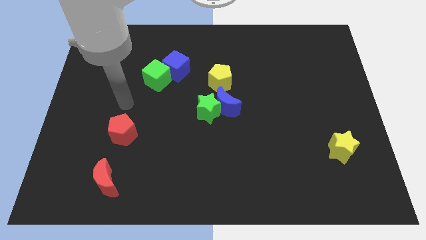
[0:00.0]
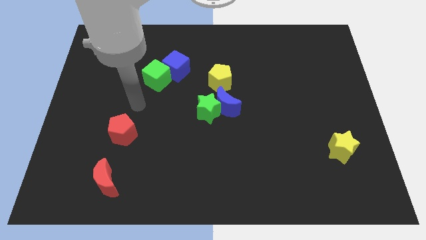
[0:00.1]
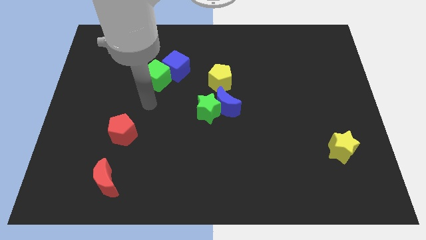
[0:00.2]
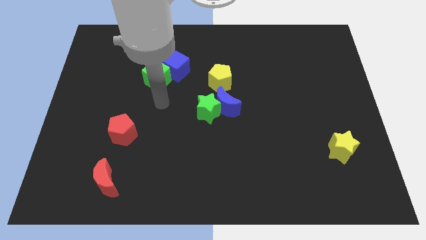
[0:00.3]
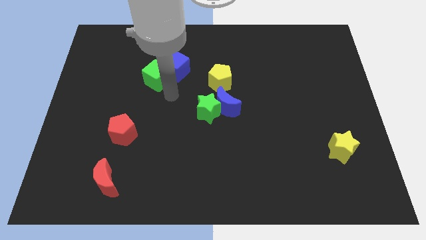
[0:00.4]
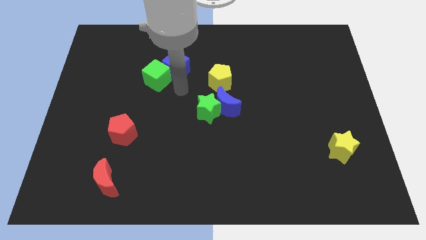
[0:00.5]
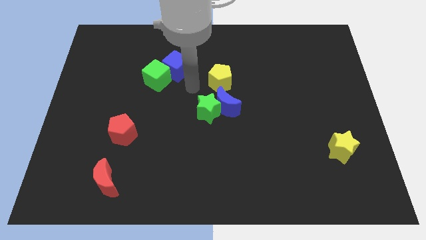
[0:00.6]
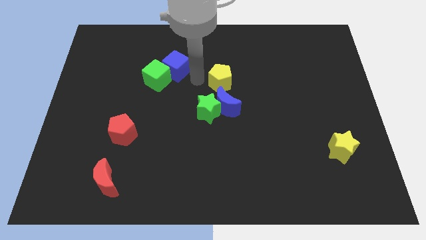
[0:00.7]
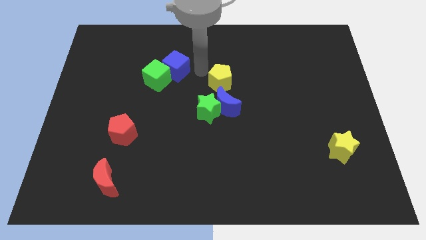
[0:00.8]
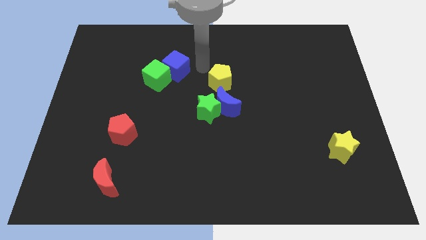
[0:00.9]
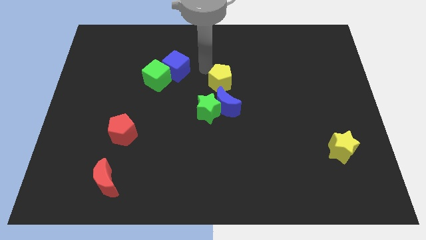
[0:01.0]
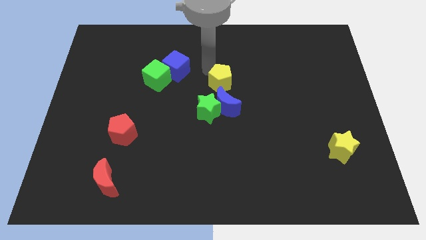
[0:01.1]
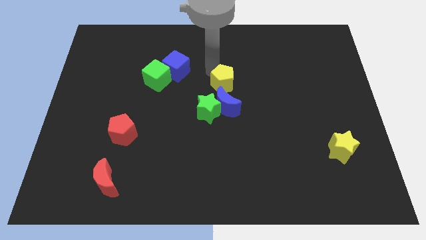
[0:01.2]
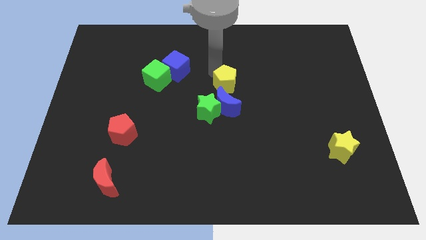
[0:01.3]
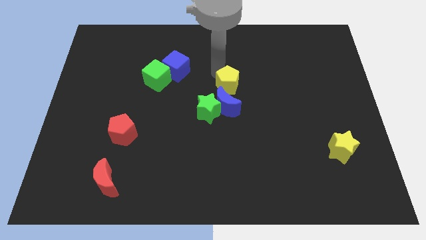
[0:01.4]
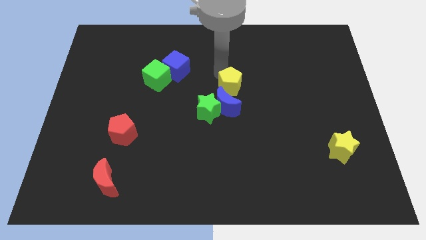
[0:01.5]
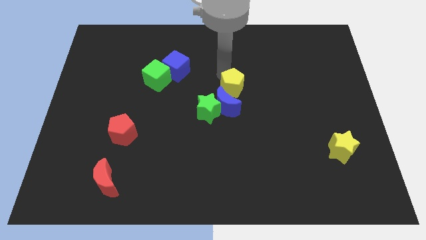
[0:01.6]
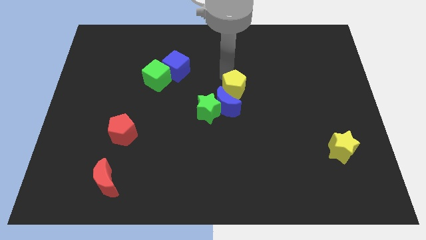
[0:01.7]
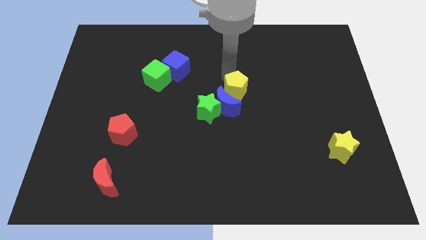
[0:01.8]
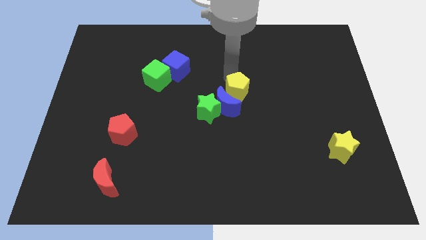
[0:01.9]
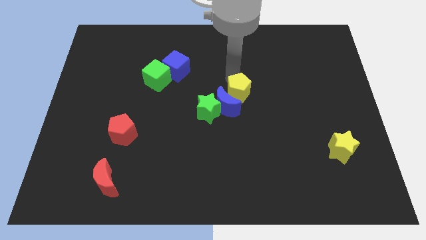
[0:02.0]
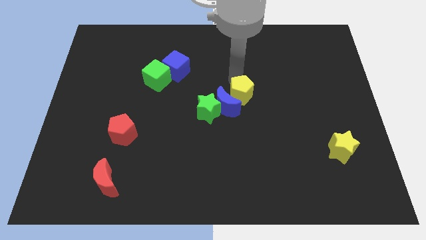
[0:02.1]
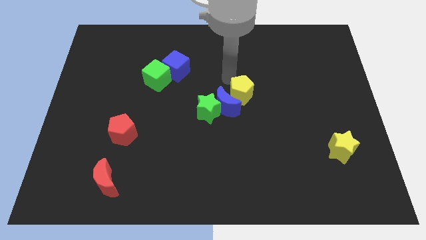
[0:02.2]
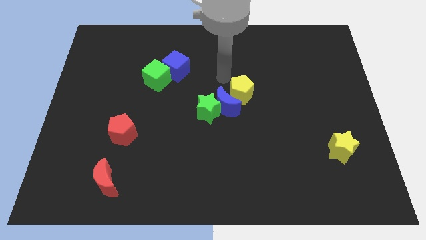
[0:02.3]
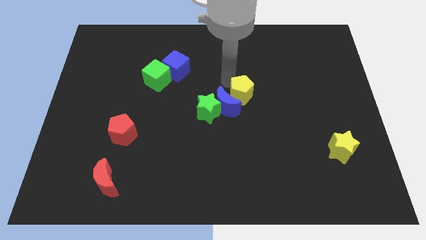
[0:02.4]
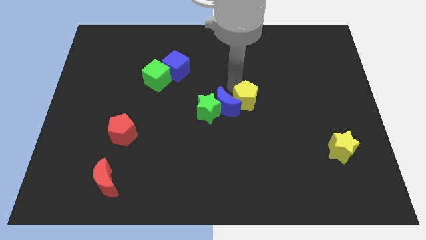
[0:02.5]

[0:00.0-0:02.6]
slide the yellow pentagon slightly downwards and to the right

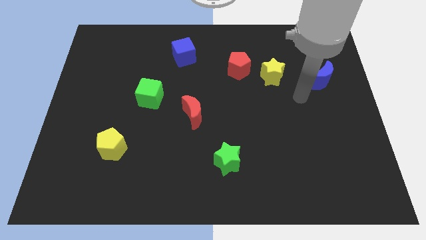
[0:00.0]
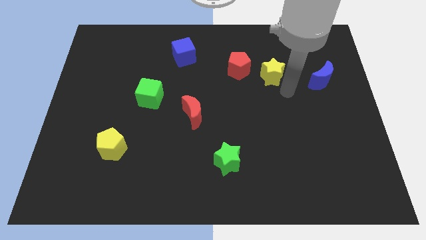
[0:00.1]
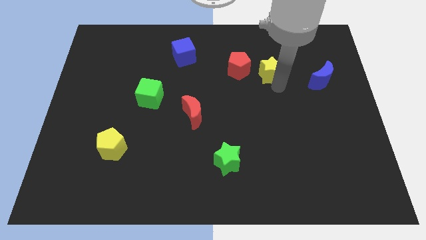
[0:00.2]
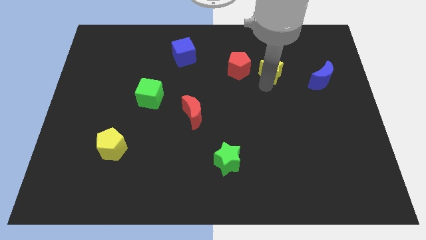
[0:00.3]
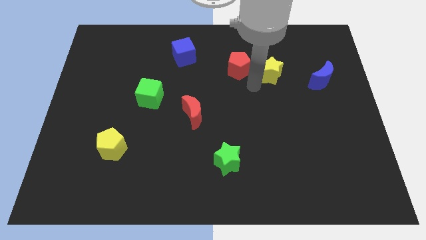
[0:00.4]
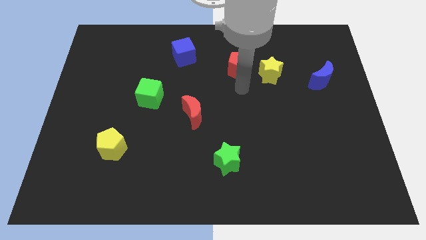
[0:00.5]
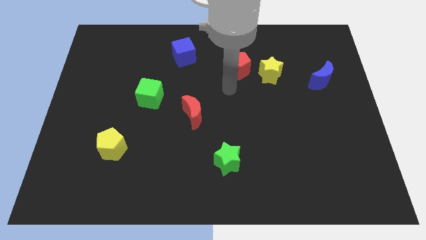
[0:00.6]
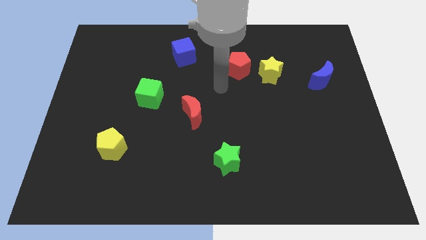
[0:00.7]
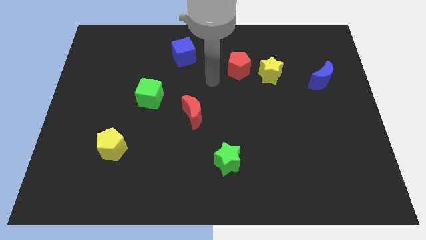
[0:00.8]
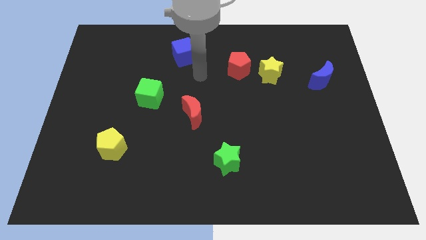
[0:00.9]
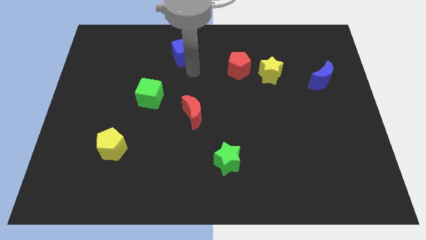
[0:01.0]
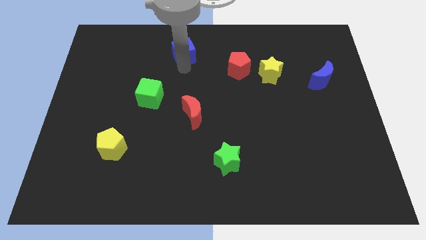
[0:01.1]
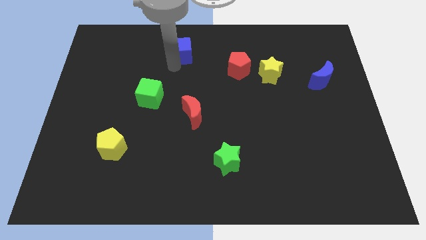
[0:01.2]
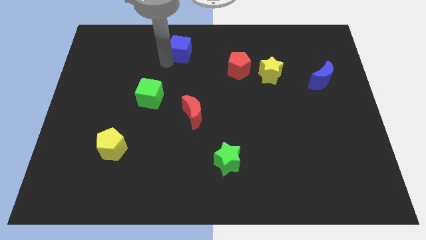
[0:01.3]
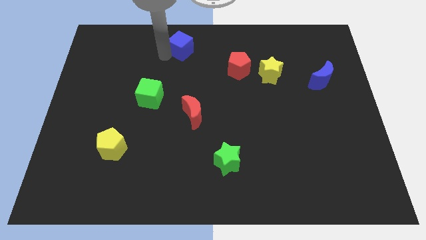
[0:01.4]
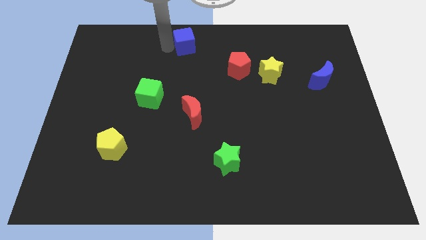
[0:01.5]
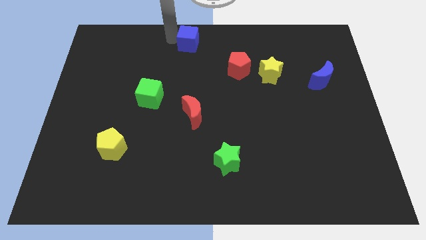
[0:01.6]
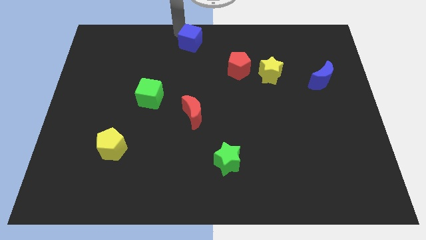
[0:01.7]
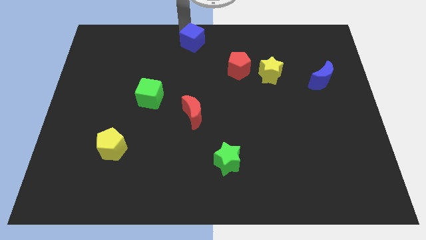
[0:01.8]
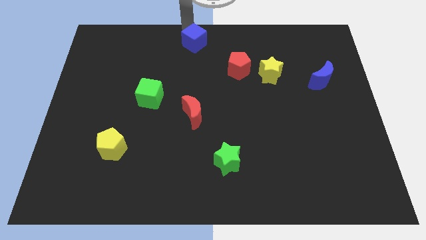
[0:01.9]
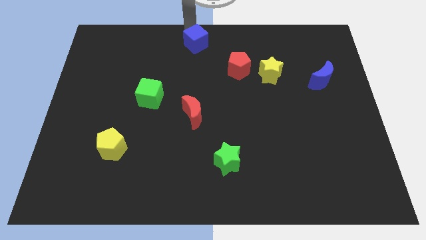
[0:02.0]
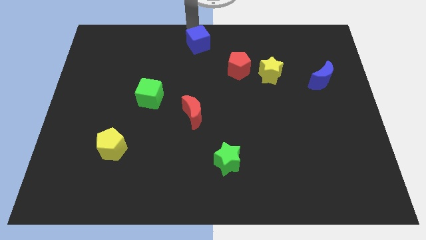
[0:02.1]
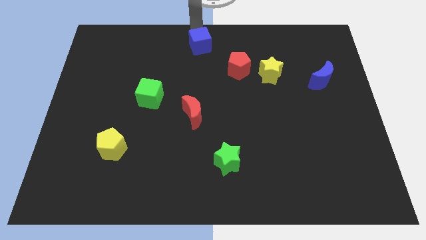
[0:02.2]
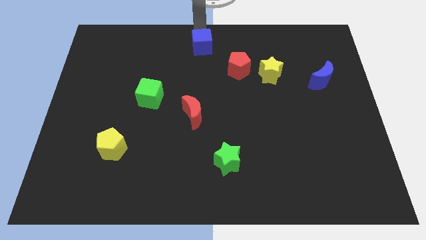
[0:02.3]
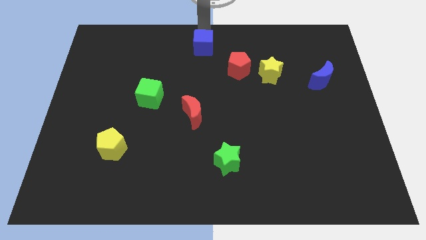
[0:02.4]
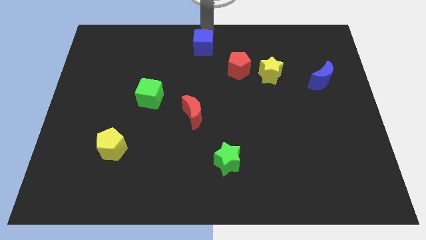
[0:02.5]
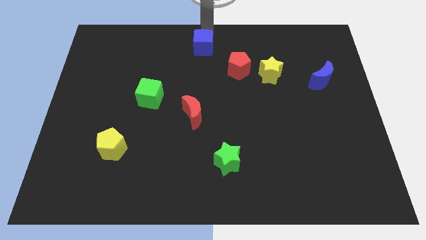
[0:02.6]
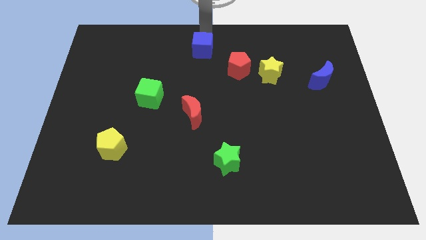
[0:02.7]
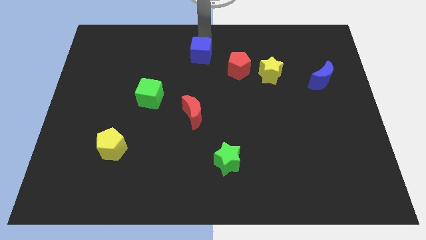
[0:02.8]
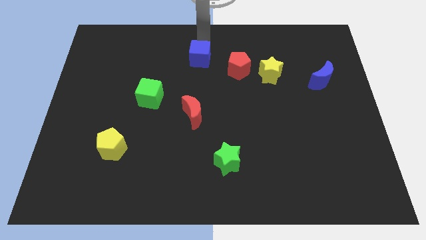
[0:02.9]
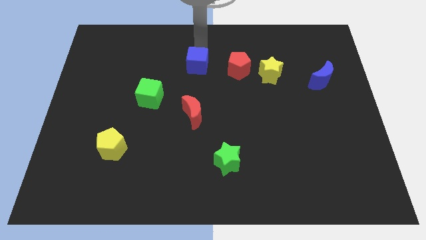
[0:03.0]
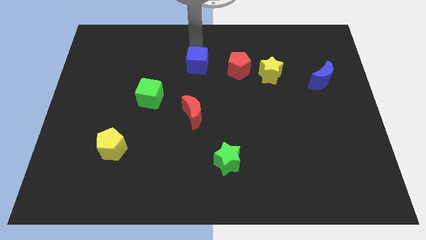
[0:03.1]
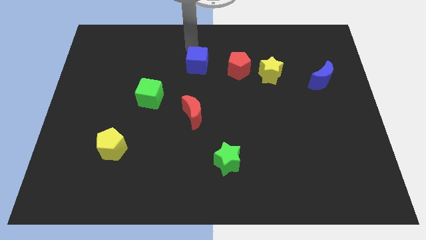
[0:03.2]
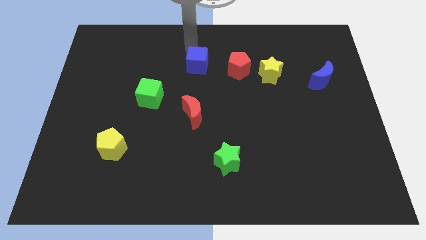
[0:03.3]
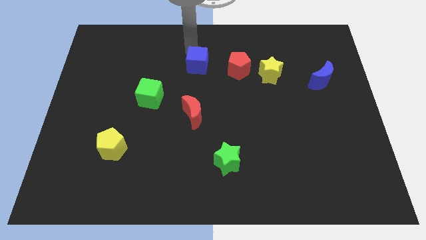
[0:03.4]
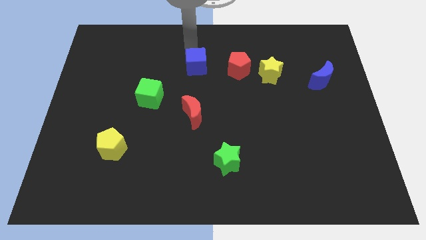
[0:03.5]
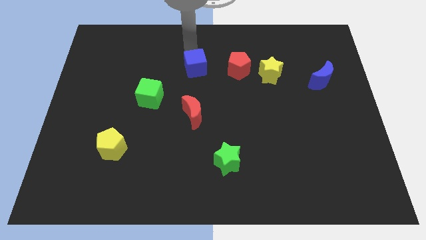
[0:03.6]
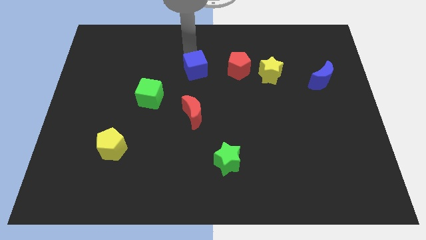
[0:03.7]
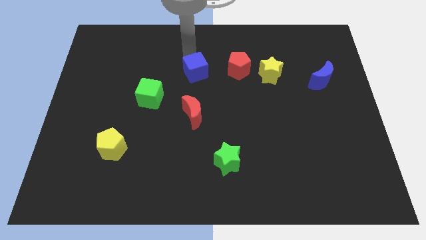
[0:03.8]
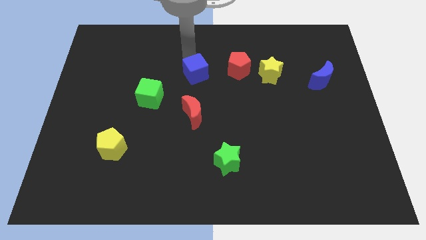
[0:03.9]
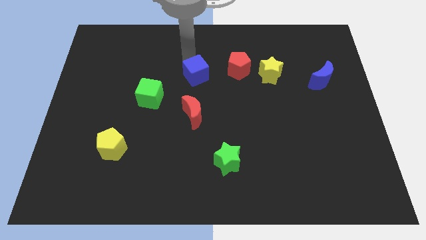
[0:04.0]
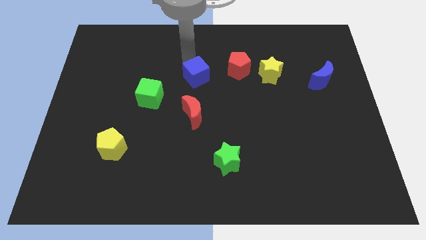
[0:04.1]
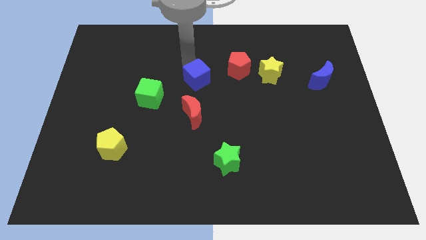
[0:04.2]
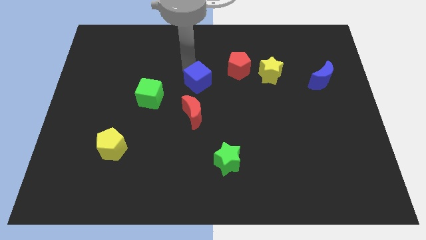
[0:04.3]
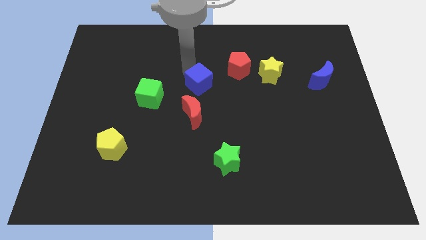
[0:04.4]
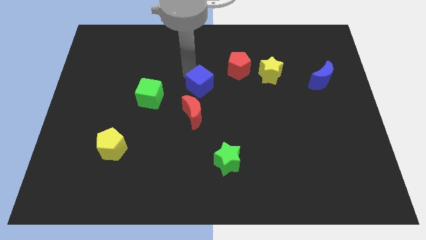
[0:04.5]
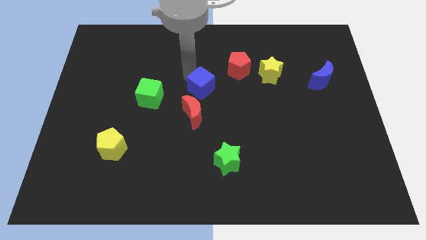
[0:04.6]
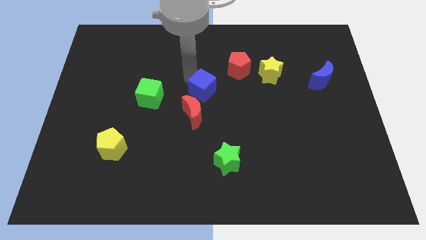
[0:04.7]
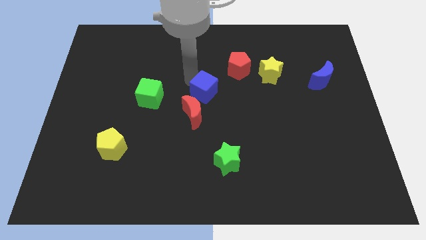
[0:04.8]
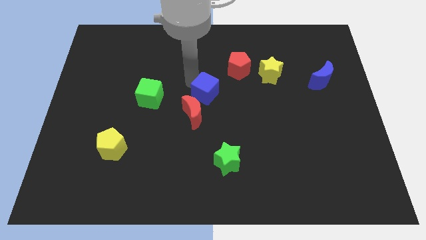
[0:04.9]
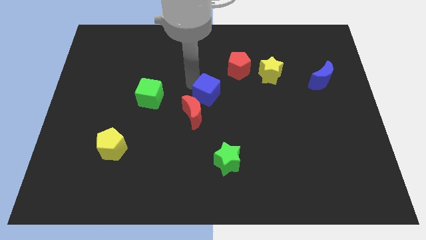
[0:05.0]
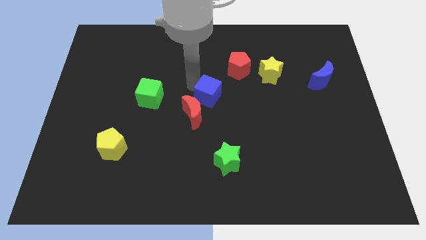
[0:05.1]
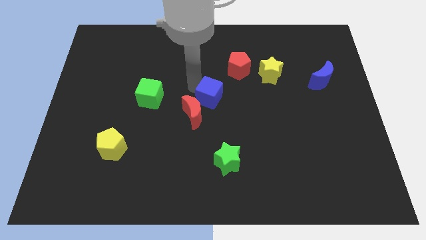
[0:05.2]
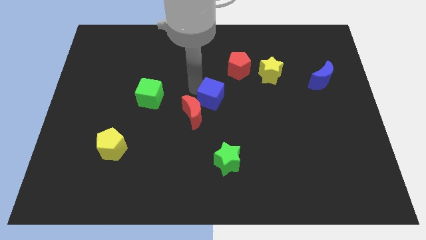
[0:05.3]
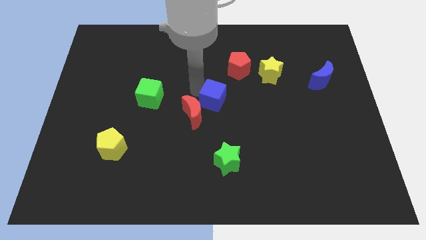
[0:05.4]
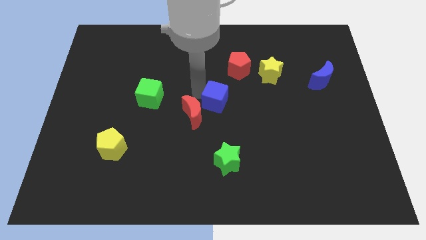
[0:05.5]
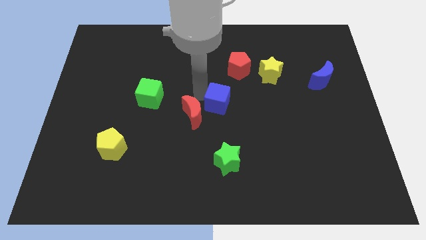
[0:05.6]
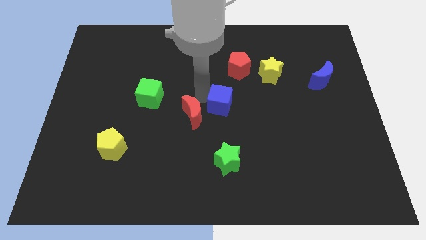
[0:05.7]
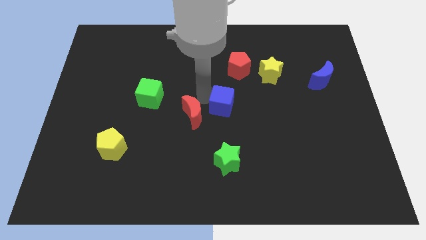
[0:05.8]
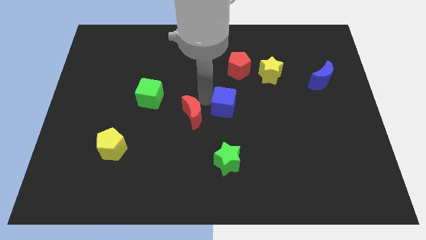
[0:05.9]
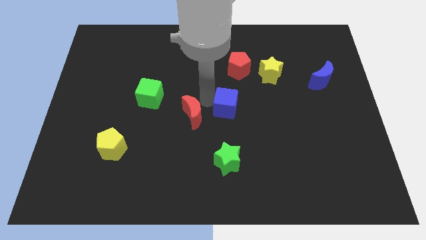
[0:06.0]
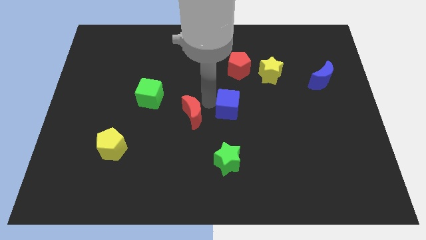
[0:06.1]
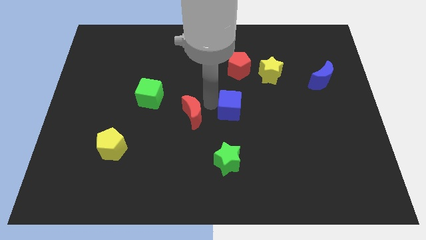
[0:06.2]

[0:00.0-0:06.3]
move the blue cube downwards and right
